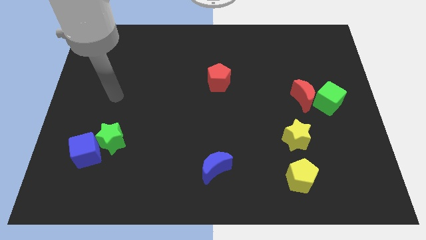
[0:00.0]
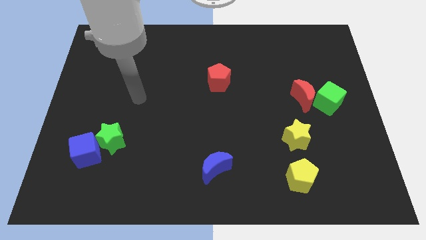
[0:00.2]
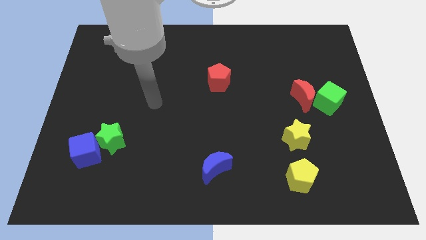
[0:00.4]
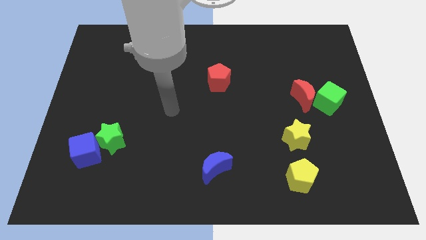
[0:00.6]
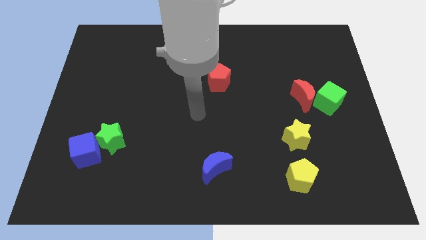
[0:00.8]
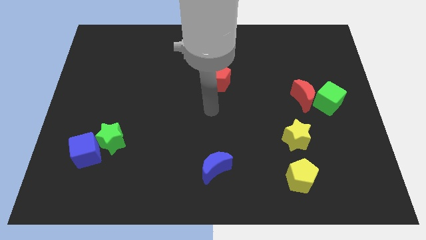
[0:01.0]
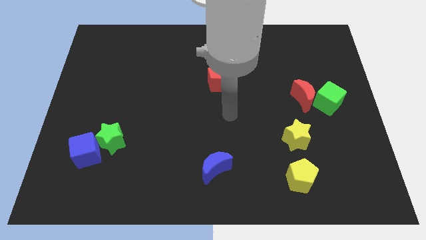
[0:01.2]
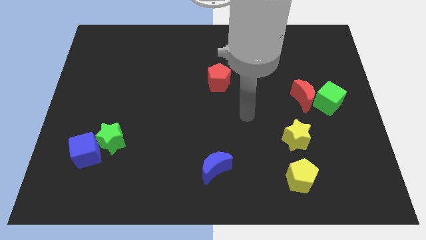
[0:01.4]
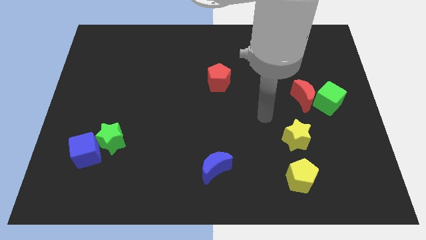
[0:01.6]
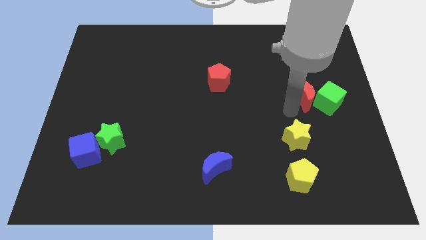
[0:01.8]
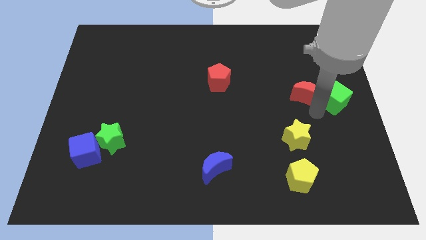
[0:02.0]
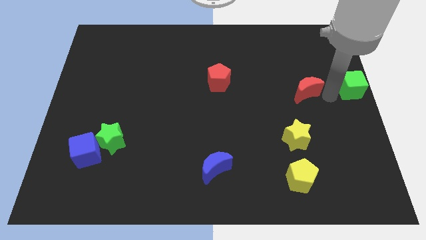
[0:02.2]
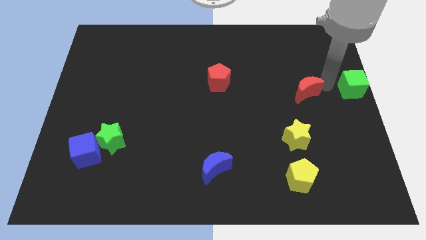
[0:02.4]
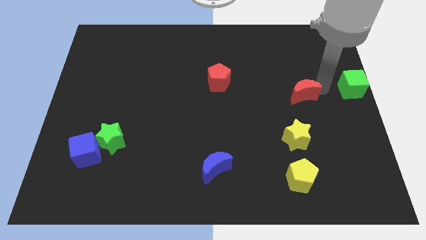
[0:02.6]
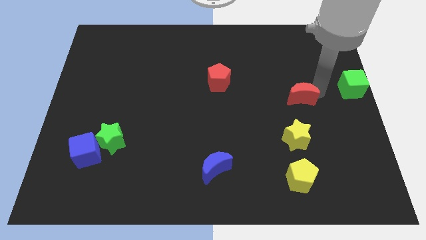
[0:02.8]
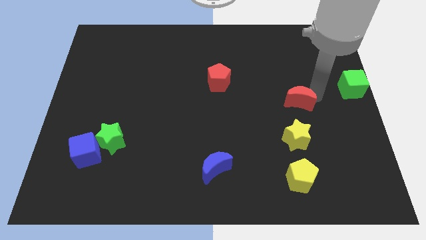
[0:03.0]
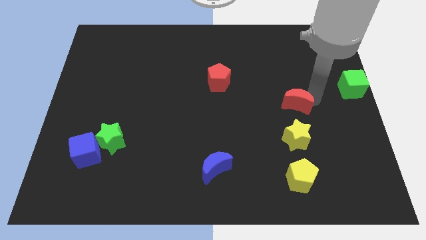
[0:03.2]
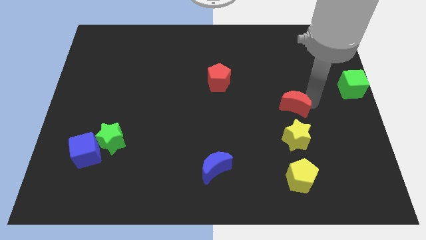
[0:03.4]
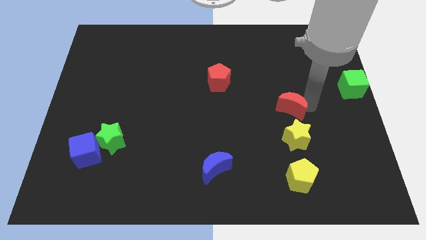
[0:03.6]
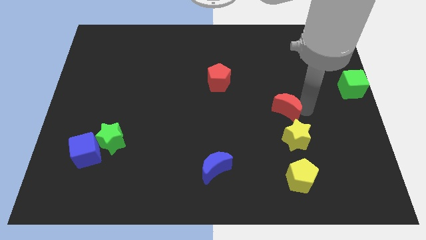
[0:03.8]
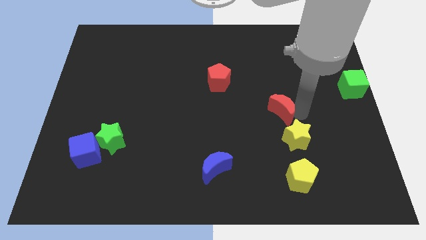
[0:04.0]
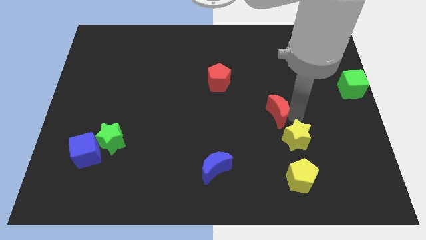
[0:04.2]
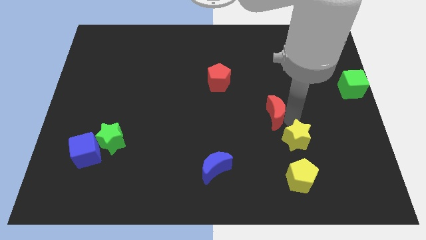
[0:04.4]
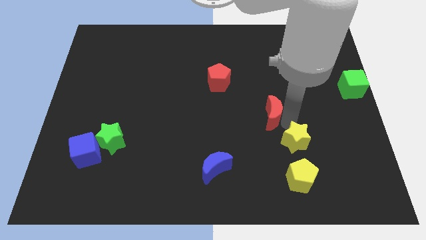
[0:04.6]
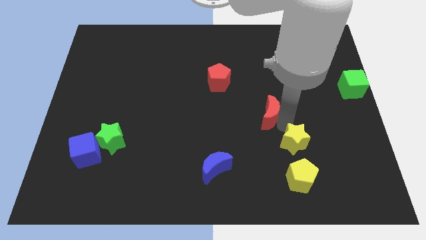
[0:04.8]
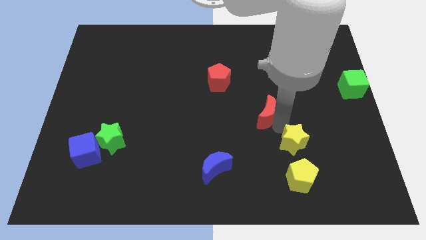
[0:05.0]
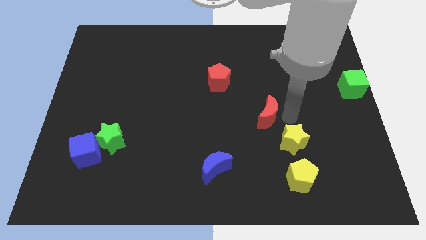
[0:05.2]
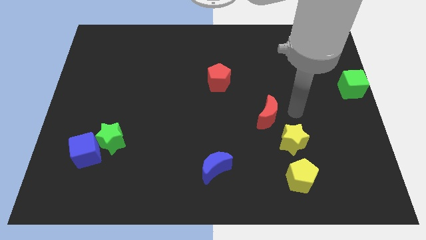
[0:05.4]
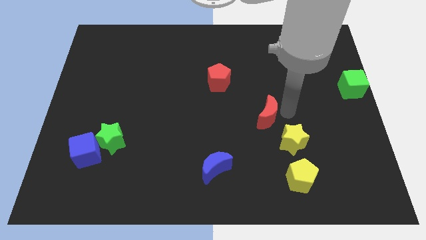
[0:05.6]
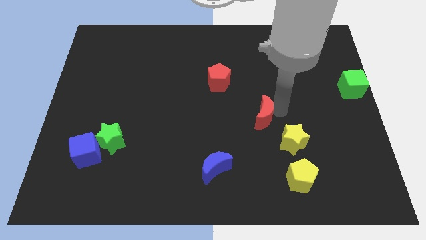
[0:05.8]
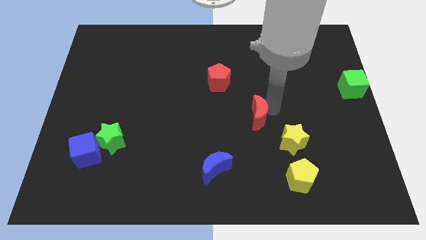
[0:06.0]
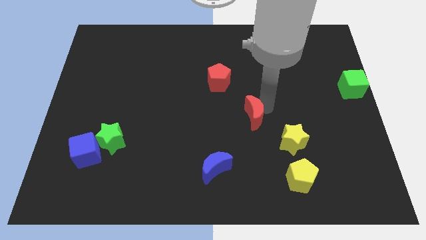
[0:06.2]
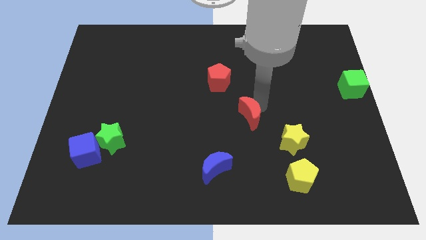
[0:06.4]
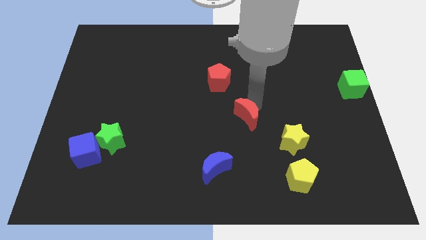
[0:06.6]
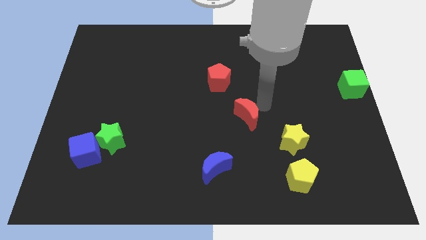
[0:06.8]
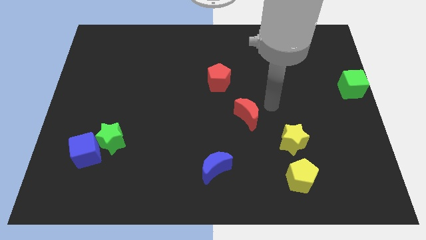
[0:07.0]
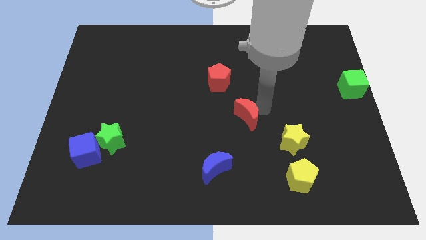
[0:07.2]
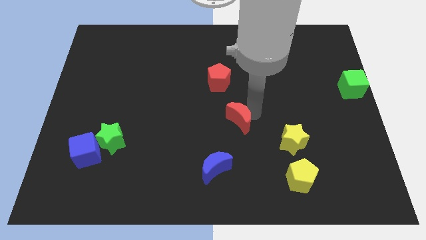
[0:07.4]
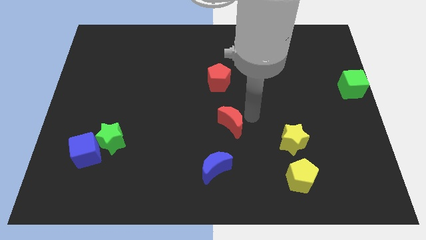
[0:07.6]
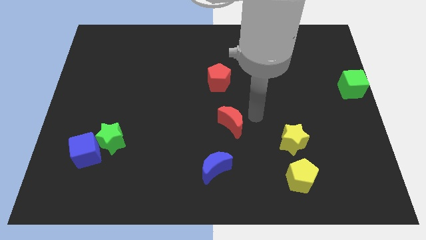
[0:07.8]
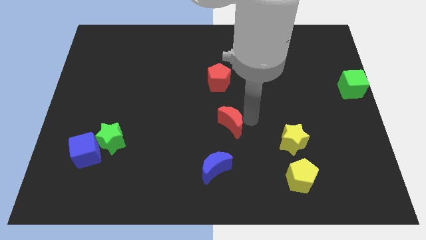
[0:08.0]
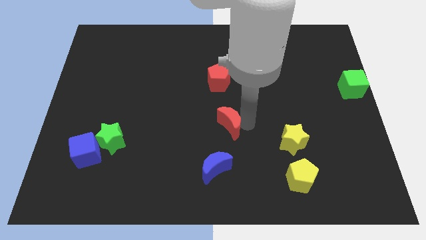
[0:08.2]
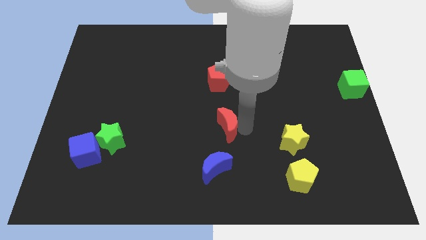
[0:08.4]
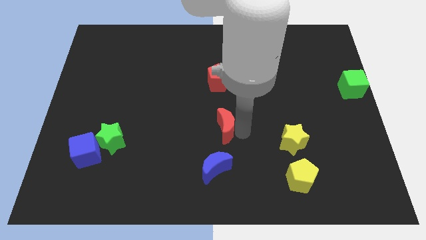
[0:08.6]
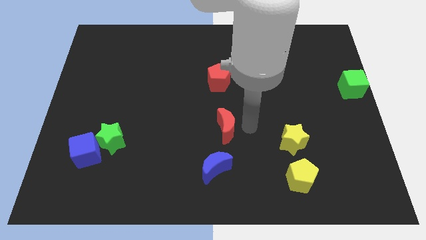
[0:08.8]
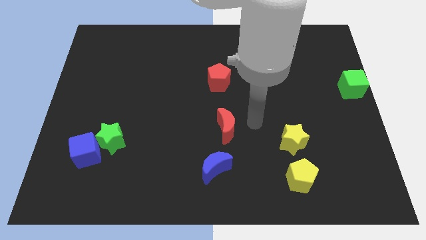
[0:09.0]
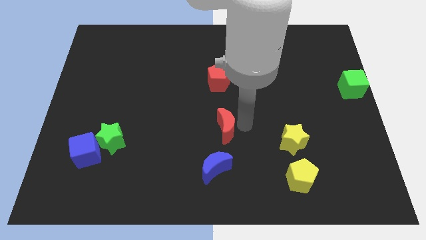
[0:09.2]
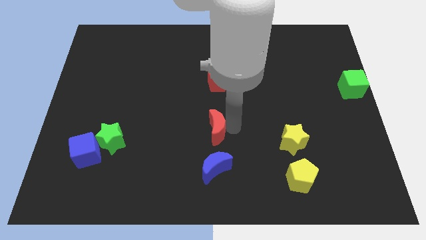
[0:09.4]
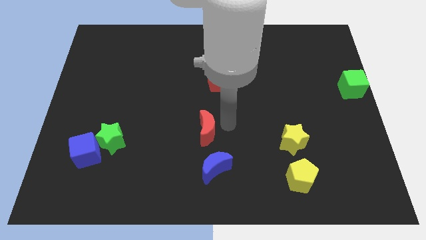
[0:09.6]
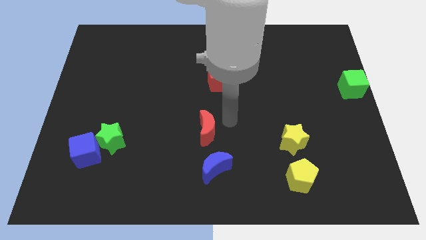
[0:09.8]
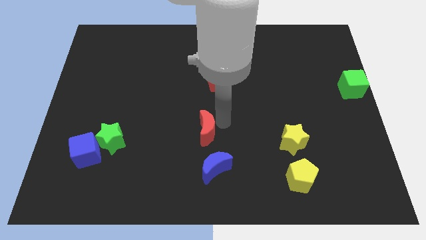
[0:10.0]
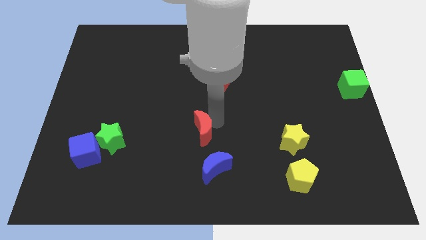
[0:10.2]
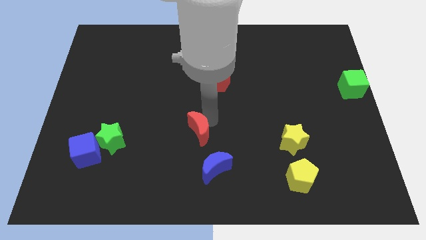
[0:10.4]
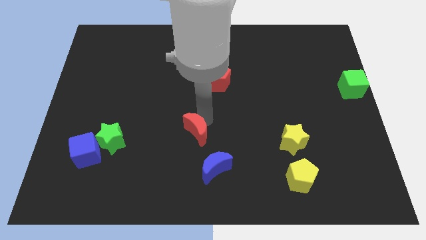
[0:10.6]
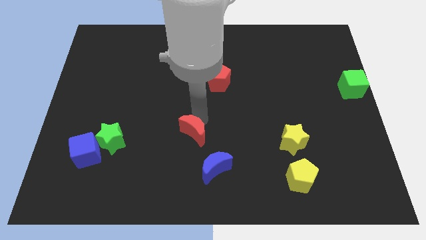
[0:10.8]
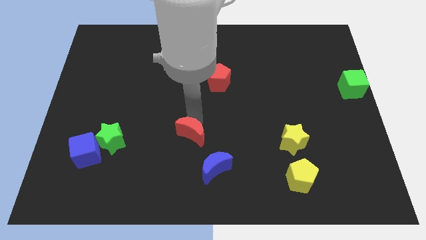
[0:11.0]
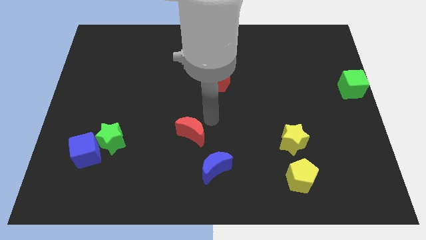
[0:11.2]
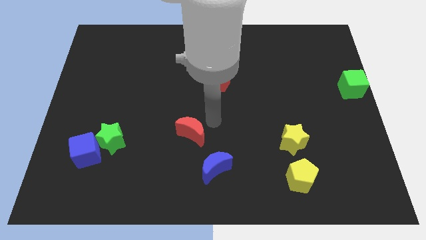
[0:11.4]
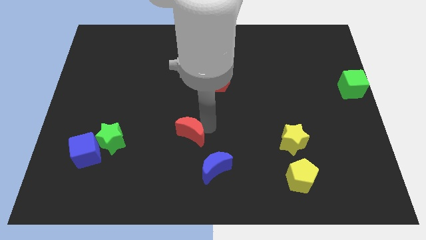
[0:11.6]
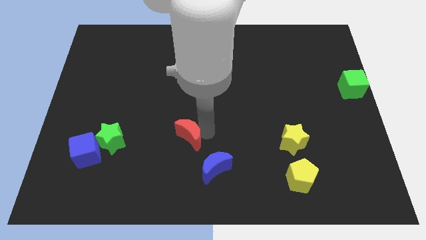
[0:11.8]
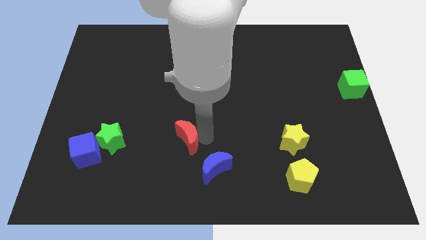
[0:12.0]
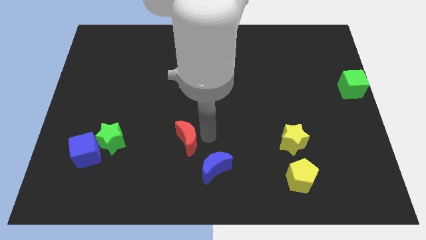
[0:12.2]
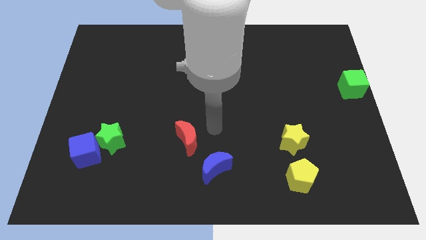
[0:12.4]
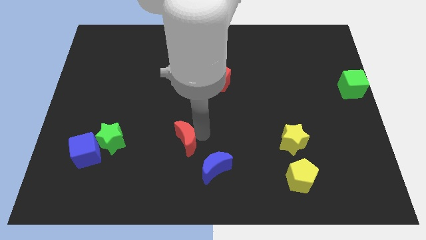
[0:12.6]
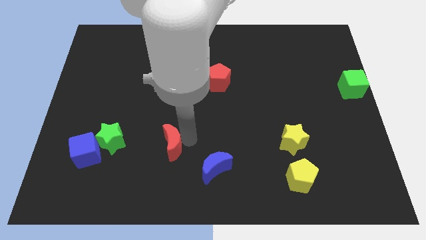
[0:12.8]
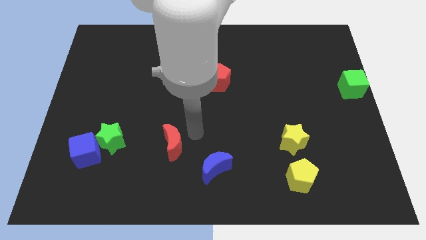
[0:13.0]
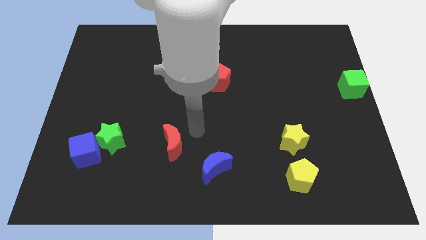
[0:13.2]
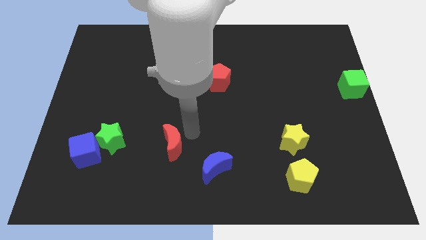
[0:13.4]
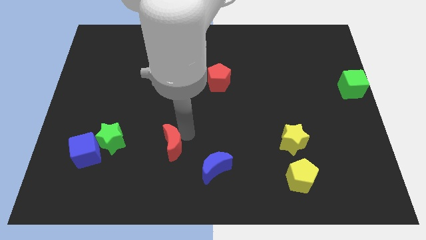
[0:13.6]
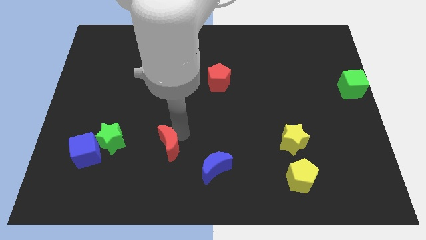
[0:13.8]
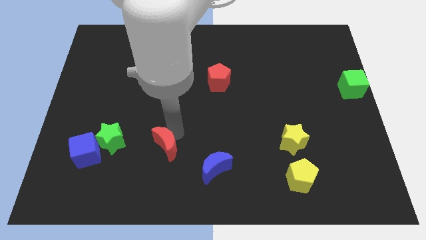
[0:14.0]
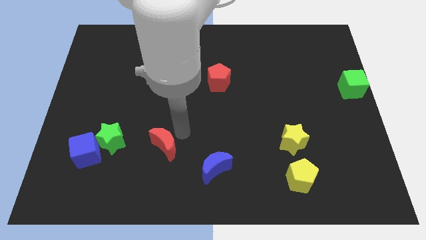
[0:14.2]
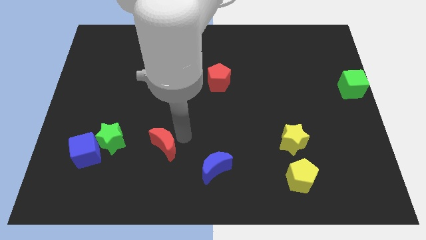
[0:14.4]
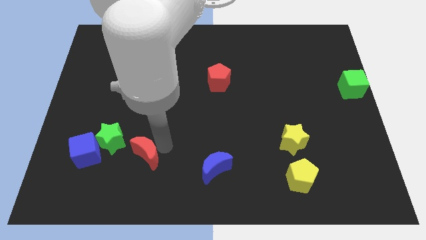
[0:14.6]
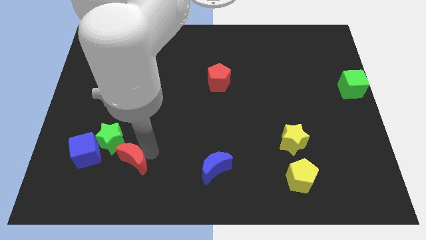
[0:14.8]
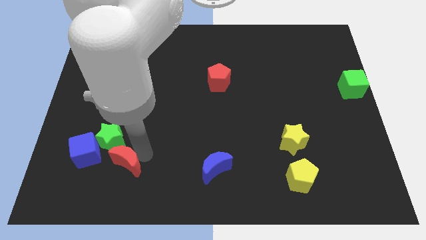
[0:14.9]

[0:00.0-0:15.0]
push the red moon to the bottom of the green star
